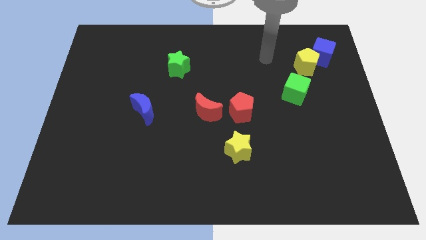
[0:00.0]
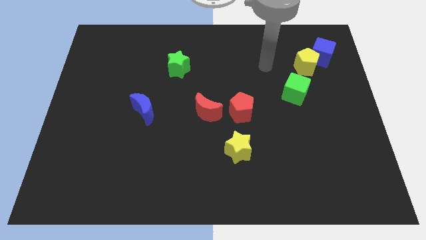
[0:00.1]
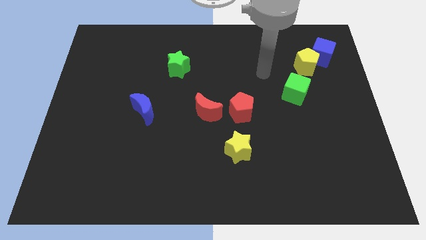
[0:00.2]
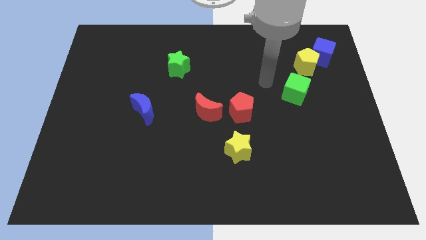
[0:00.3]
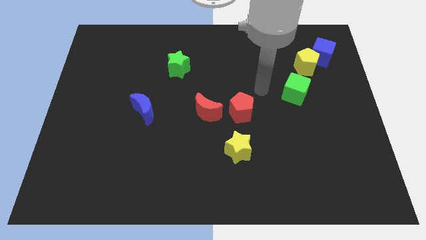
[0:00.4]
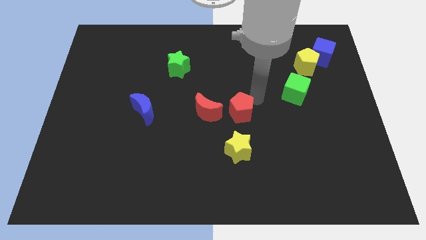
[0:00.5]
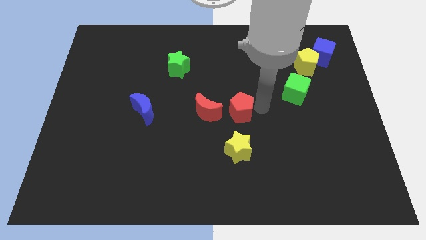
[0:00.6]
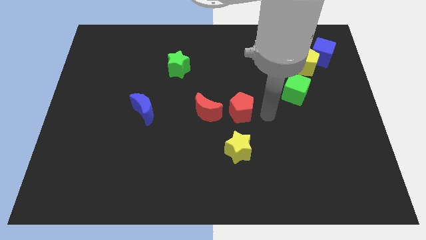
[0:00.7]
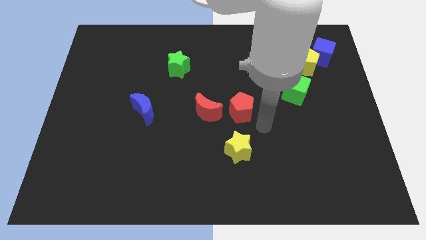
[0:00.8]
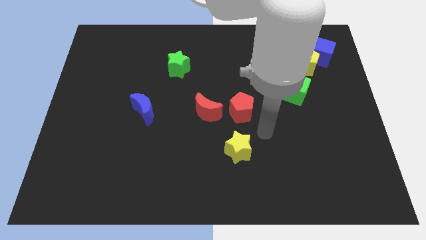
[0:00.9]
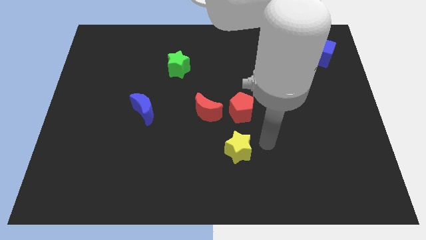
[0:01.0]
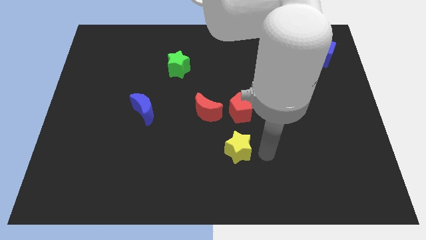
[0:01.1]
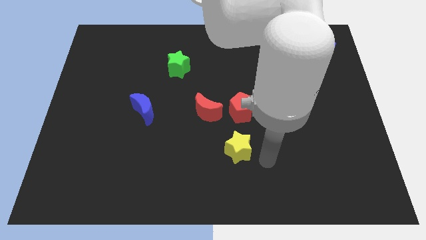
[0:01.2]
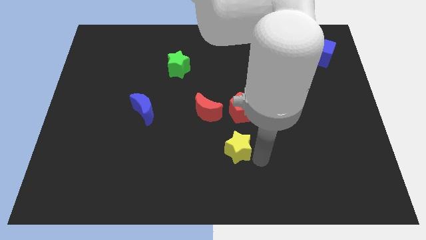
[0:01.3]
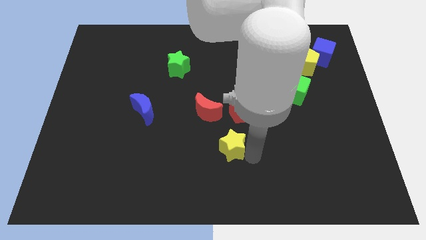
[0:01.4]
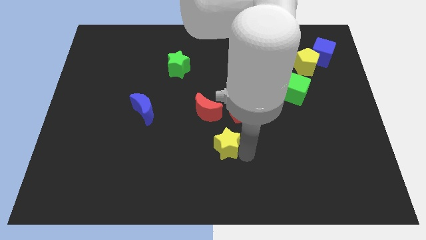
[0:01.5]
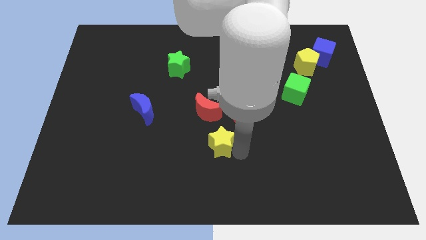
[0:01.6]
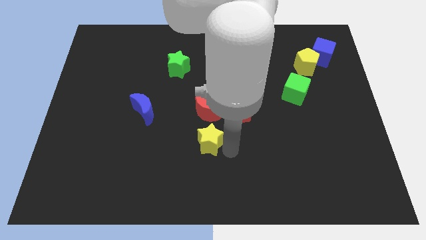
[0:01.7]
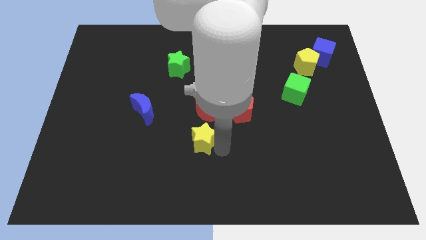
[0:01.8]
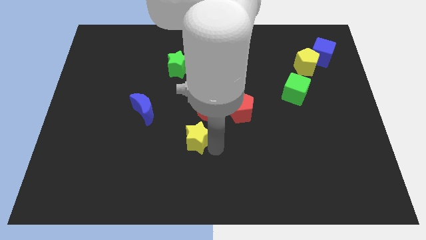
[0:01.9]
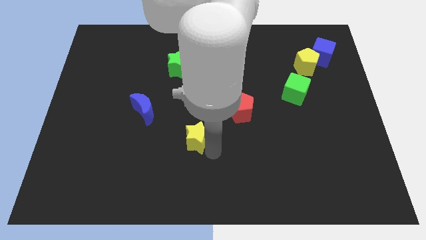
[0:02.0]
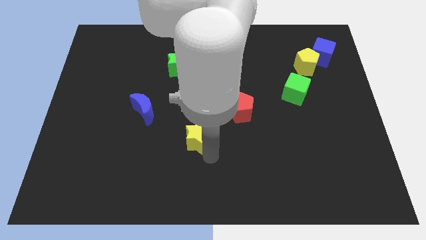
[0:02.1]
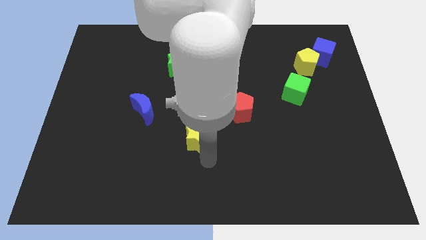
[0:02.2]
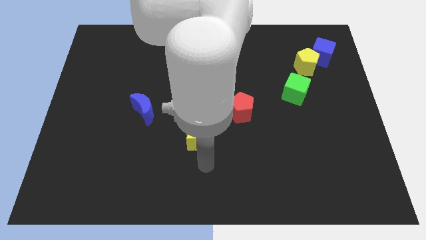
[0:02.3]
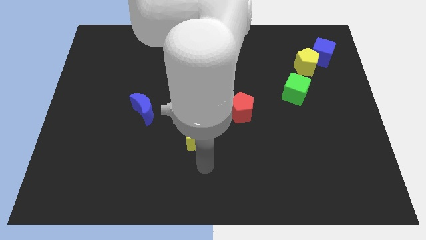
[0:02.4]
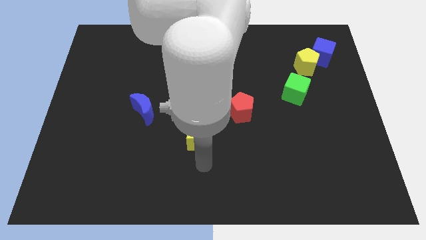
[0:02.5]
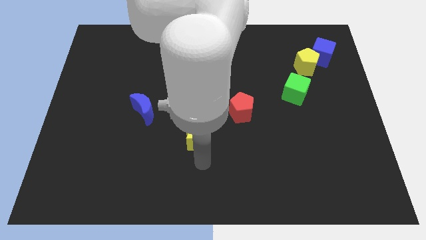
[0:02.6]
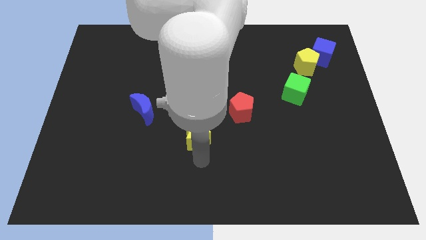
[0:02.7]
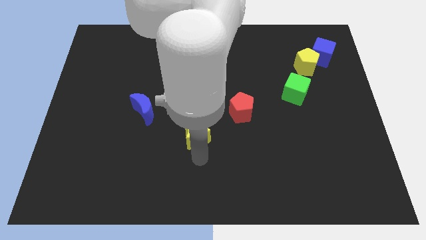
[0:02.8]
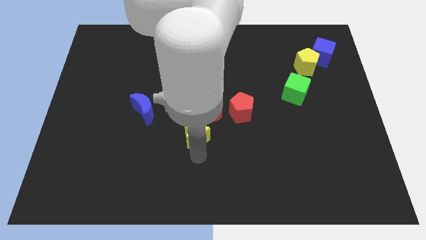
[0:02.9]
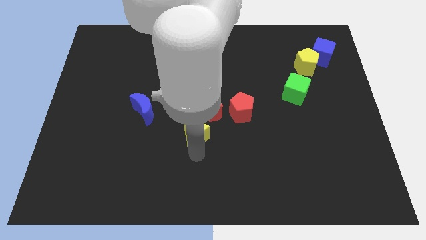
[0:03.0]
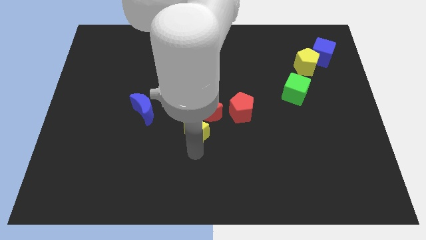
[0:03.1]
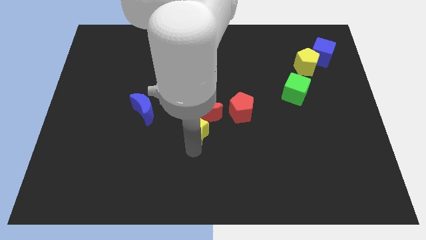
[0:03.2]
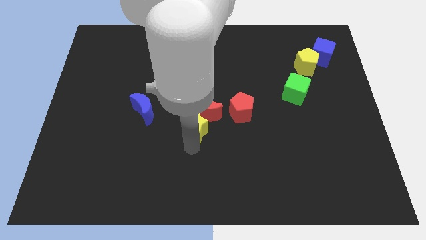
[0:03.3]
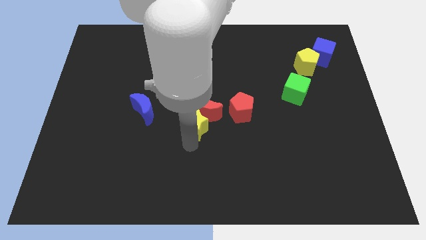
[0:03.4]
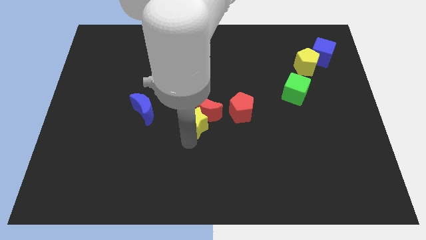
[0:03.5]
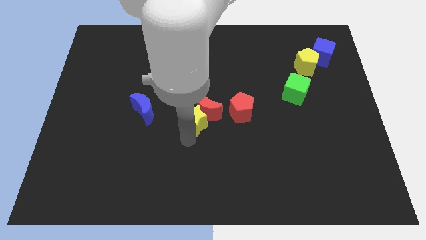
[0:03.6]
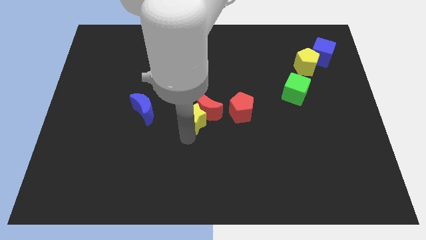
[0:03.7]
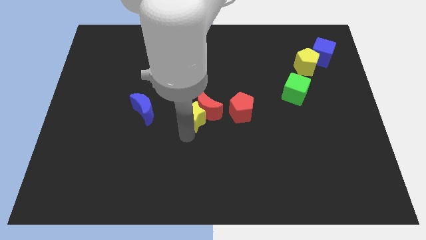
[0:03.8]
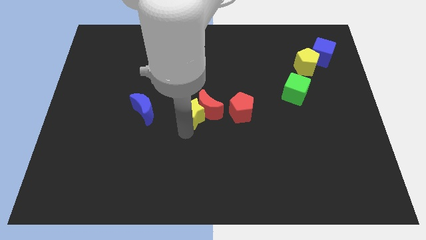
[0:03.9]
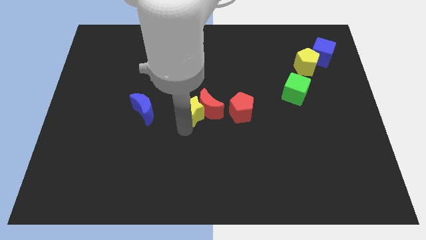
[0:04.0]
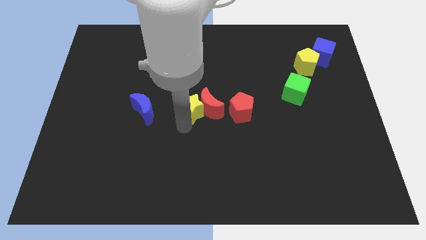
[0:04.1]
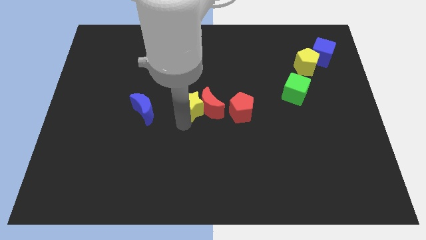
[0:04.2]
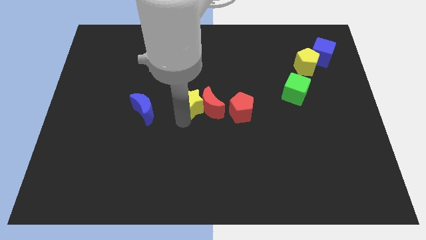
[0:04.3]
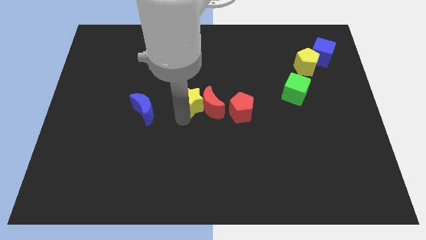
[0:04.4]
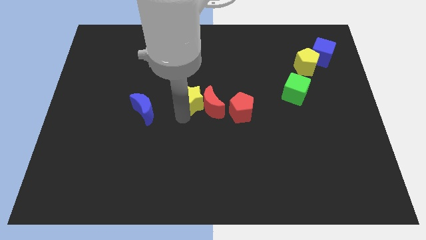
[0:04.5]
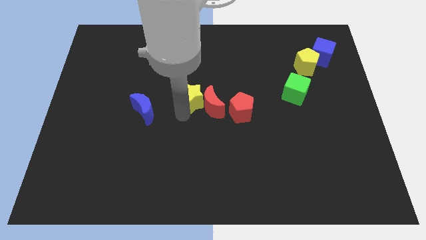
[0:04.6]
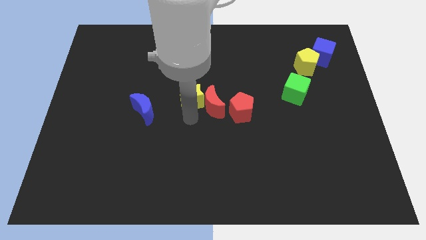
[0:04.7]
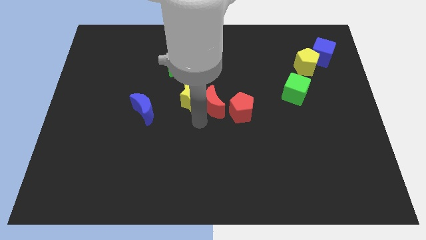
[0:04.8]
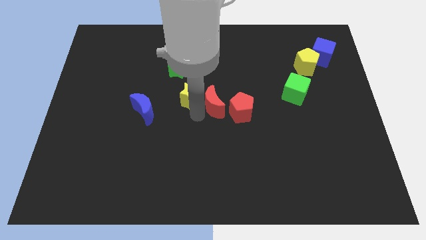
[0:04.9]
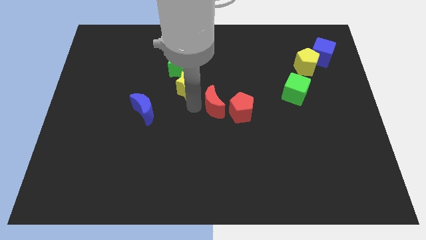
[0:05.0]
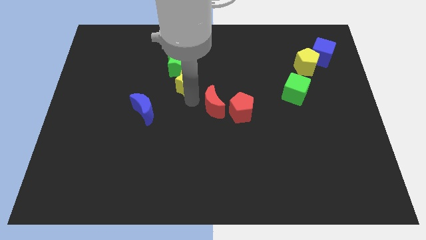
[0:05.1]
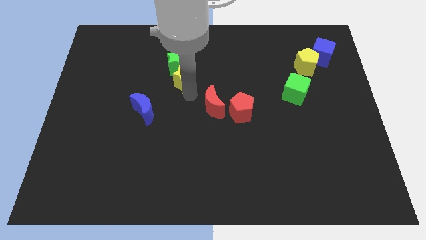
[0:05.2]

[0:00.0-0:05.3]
push the yellow star next to the green star

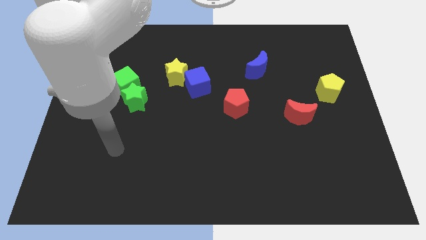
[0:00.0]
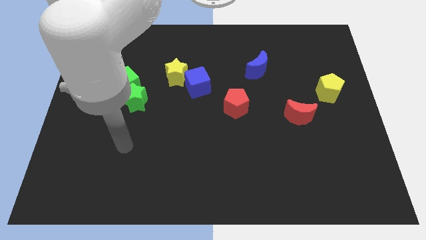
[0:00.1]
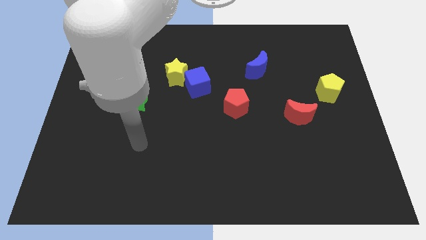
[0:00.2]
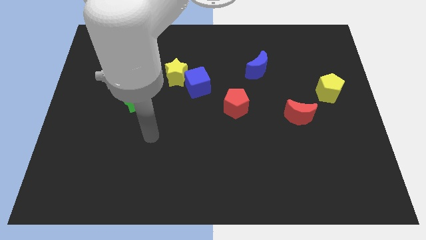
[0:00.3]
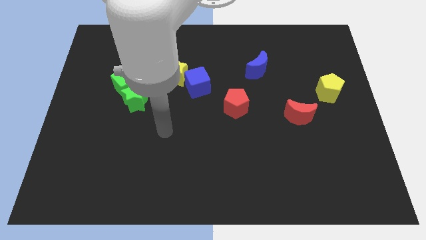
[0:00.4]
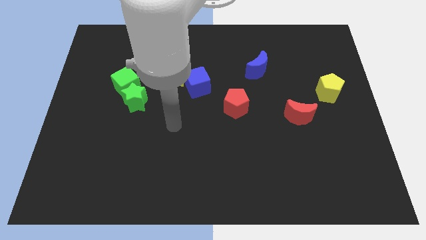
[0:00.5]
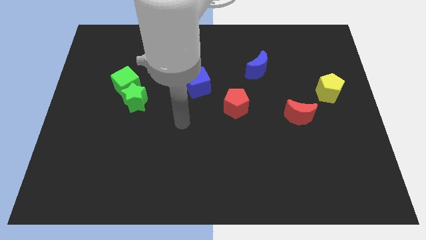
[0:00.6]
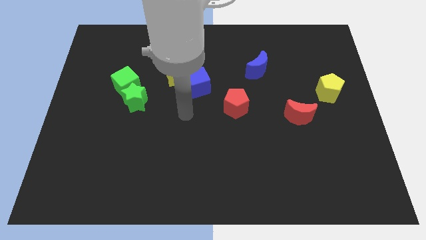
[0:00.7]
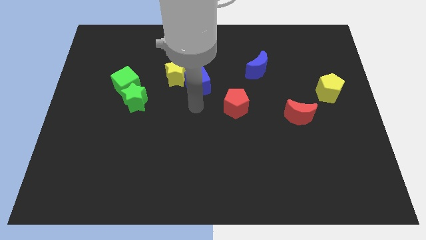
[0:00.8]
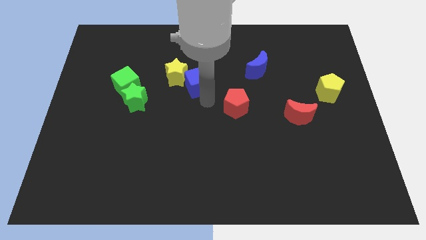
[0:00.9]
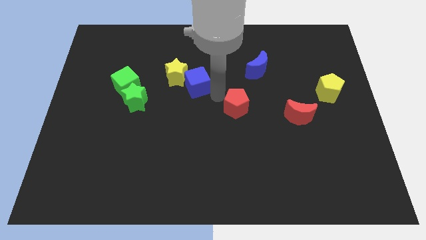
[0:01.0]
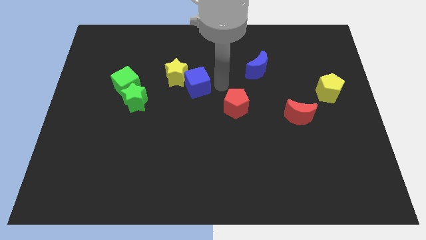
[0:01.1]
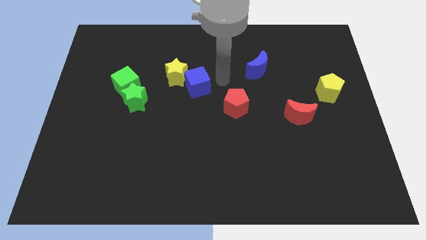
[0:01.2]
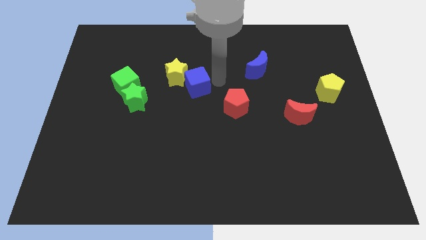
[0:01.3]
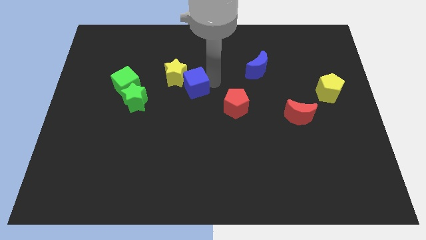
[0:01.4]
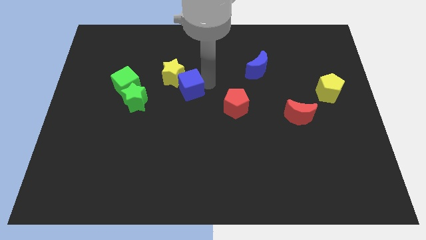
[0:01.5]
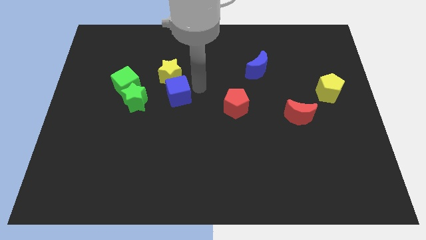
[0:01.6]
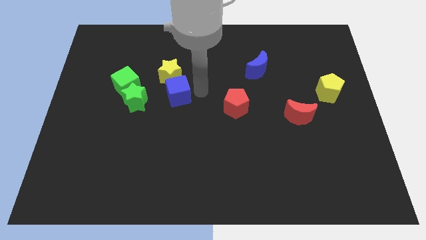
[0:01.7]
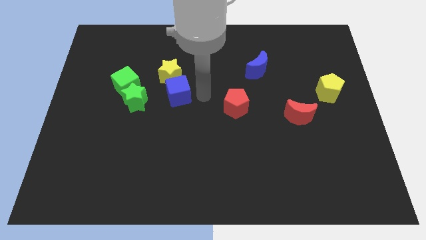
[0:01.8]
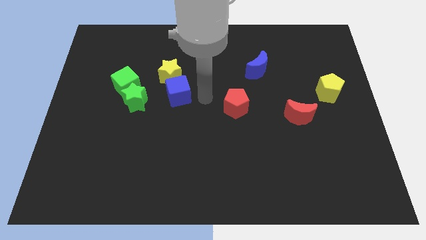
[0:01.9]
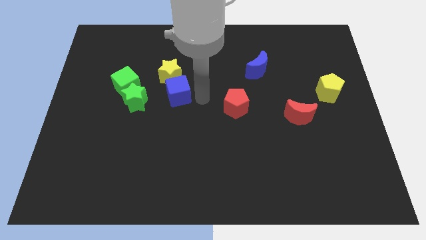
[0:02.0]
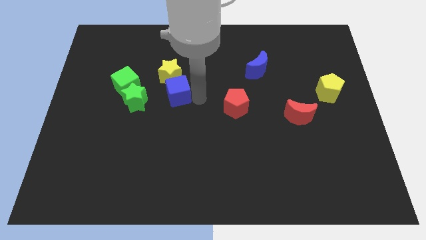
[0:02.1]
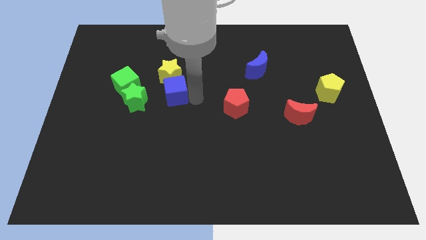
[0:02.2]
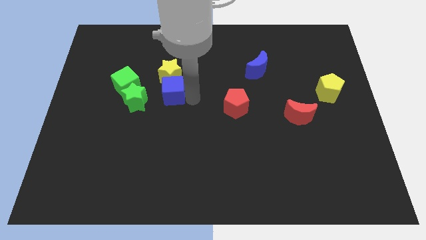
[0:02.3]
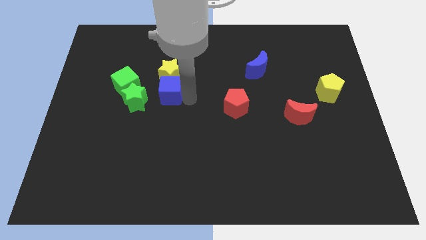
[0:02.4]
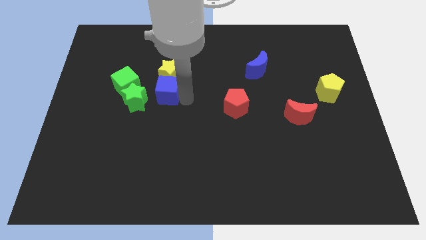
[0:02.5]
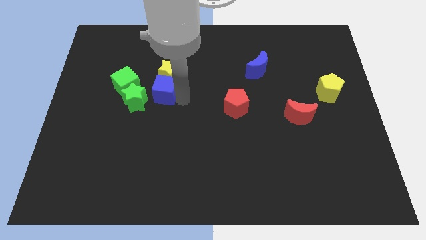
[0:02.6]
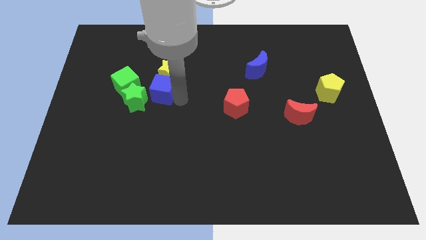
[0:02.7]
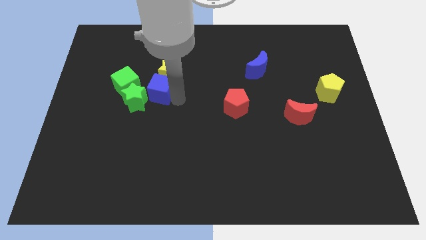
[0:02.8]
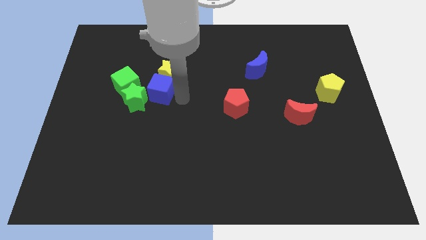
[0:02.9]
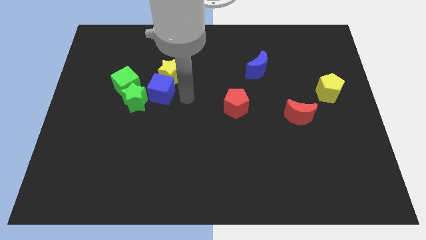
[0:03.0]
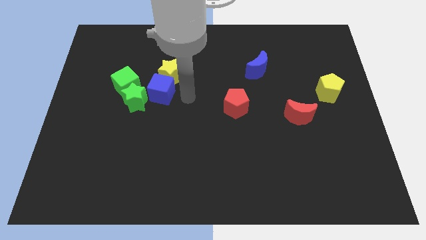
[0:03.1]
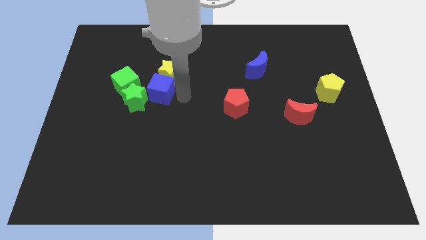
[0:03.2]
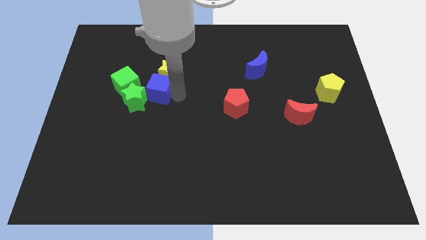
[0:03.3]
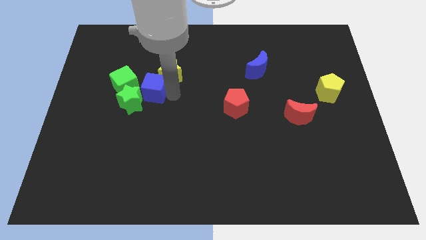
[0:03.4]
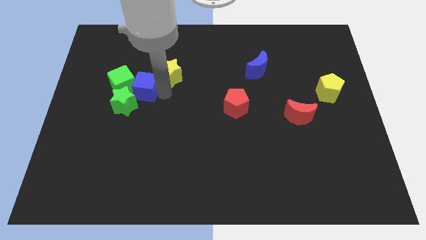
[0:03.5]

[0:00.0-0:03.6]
move the blue cube close to the green cube
